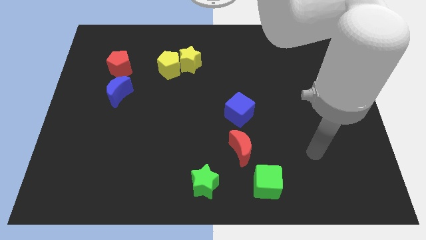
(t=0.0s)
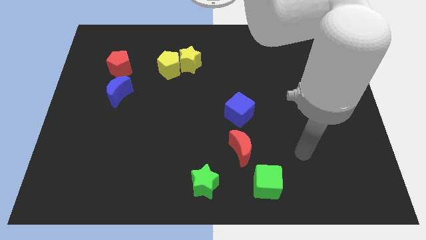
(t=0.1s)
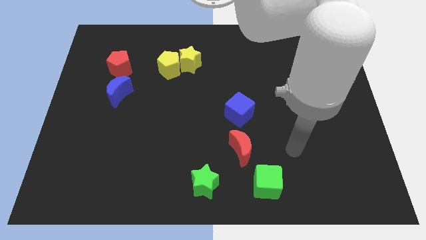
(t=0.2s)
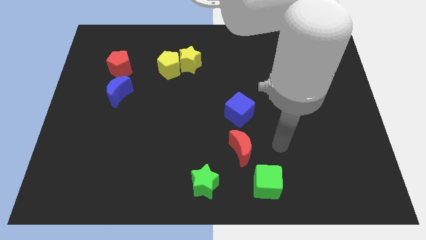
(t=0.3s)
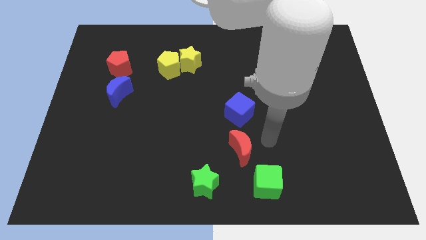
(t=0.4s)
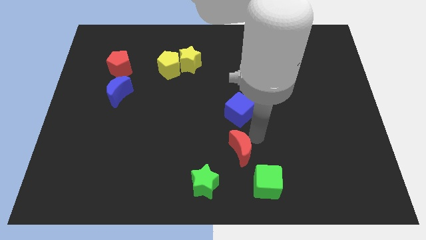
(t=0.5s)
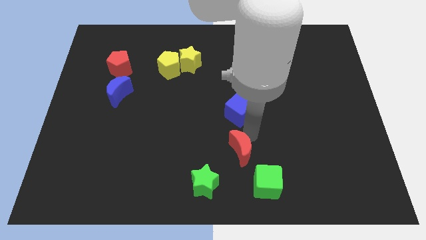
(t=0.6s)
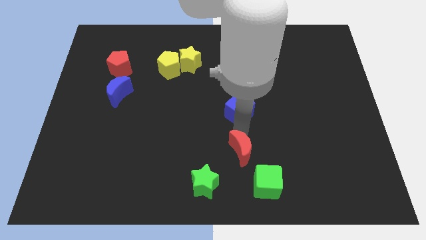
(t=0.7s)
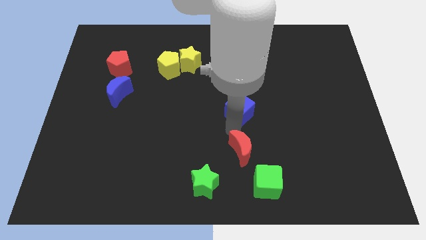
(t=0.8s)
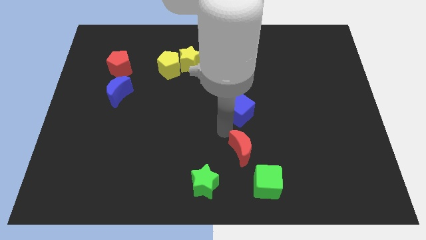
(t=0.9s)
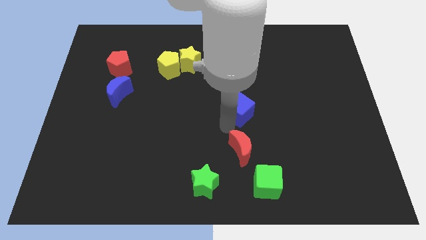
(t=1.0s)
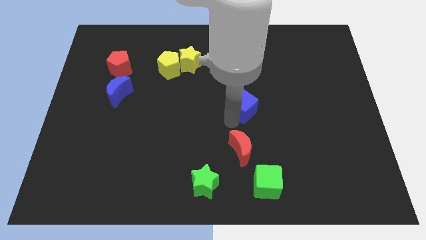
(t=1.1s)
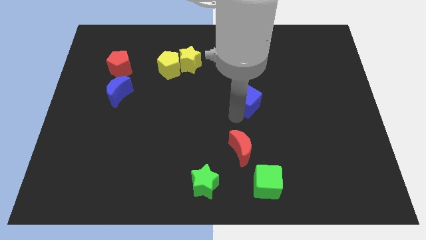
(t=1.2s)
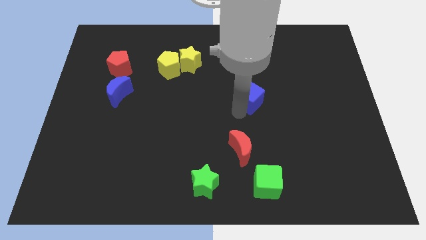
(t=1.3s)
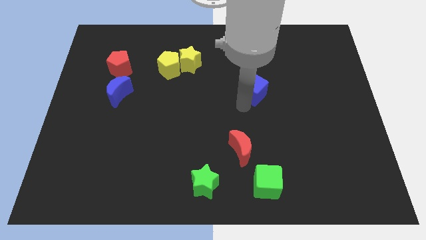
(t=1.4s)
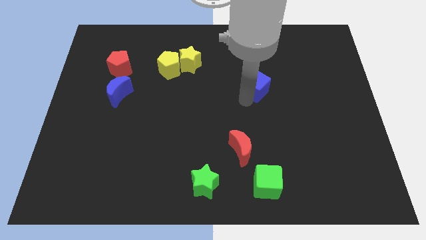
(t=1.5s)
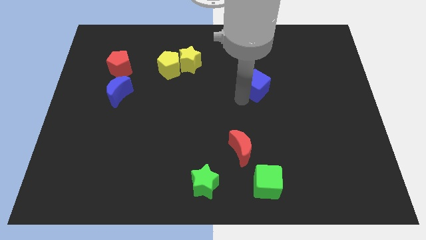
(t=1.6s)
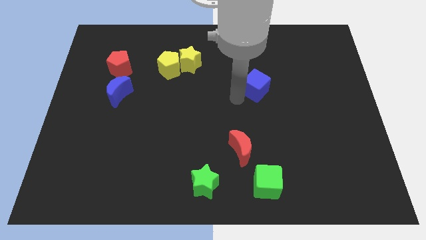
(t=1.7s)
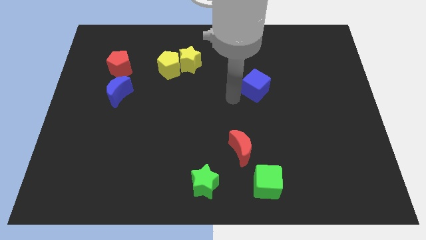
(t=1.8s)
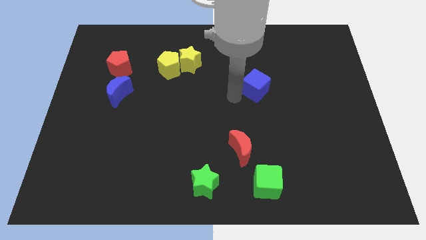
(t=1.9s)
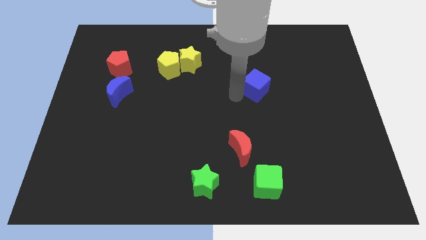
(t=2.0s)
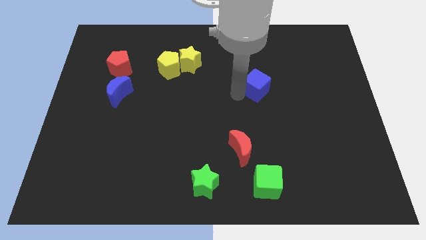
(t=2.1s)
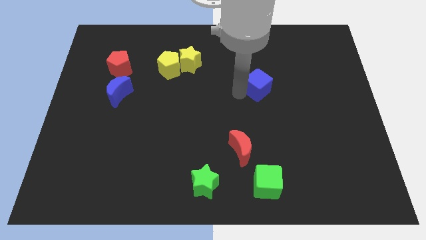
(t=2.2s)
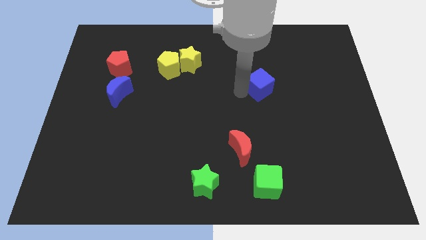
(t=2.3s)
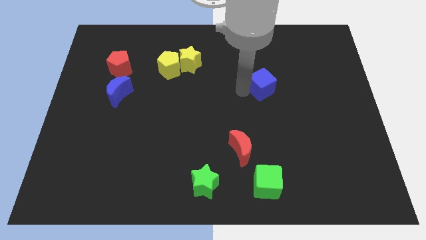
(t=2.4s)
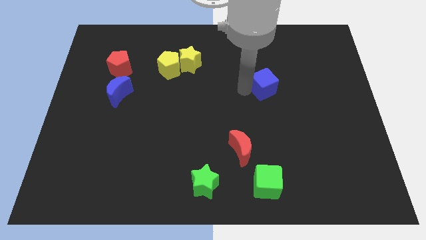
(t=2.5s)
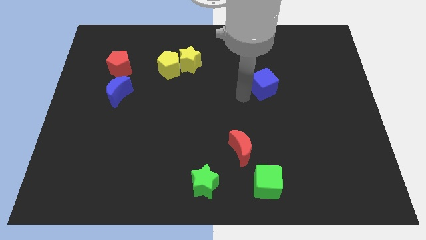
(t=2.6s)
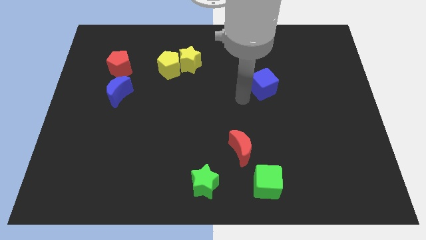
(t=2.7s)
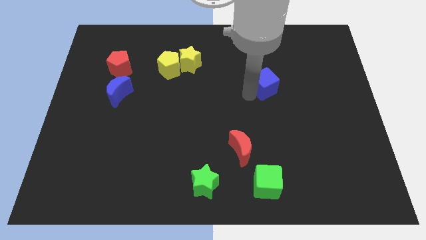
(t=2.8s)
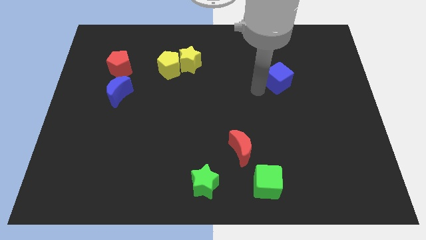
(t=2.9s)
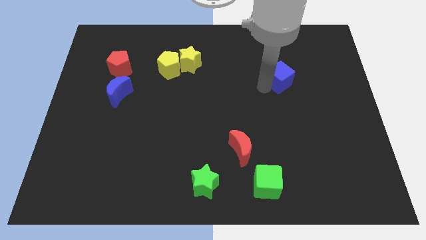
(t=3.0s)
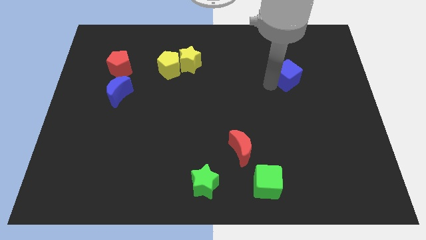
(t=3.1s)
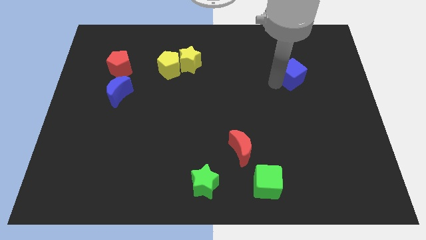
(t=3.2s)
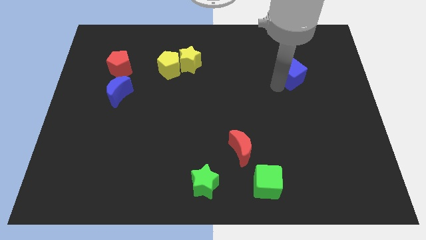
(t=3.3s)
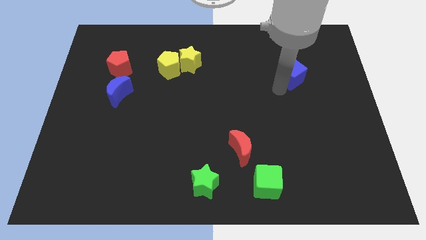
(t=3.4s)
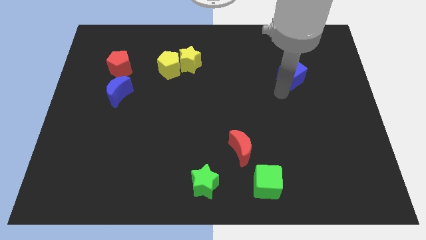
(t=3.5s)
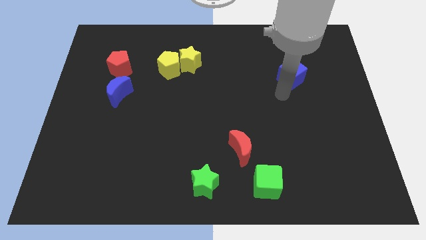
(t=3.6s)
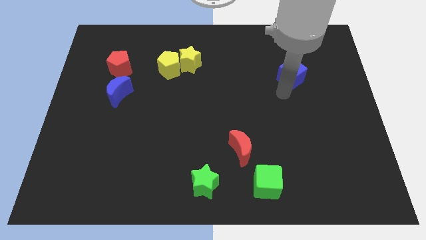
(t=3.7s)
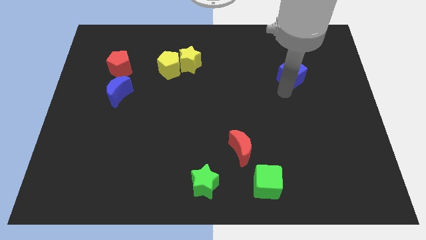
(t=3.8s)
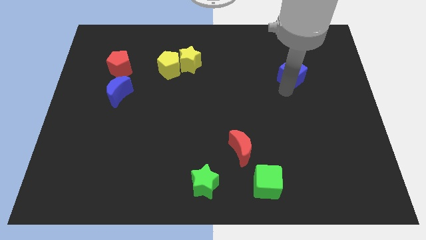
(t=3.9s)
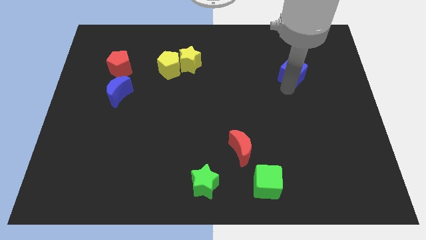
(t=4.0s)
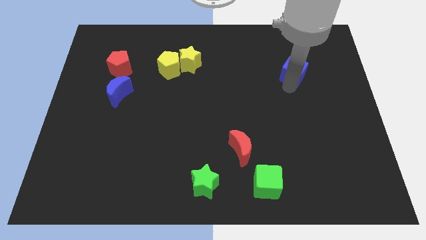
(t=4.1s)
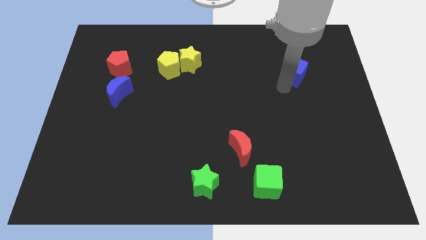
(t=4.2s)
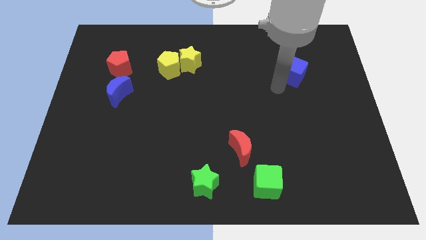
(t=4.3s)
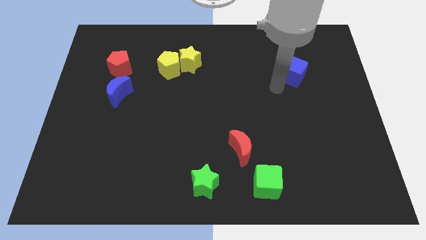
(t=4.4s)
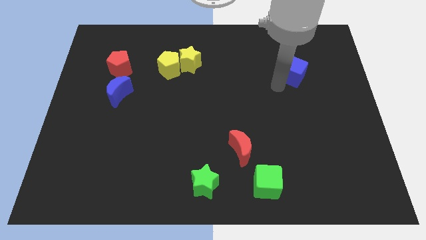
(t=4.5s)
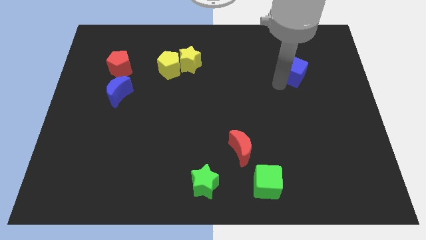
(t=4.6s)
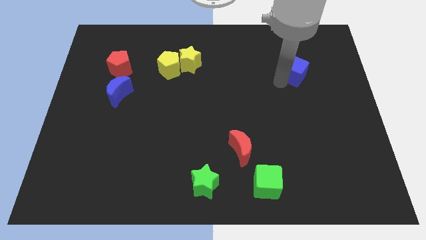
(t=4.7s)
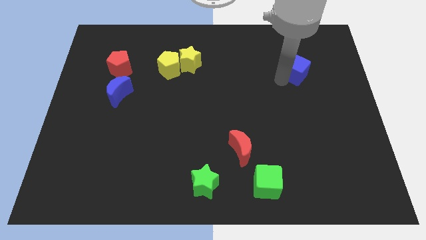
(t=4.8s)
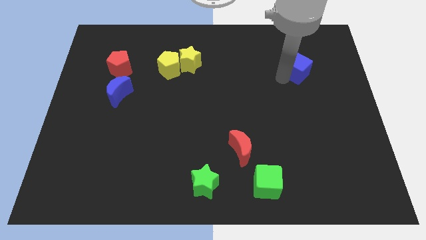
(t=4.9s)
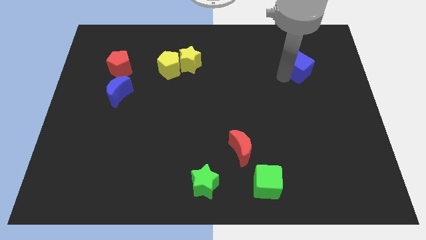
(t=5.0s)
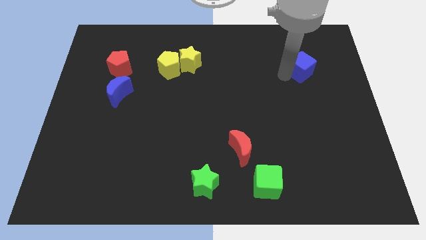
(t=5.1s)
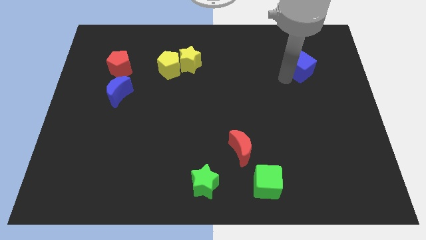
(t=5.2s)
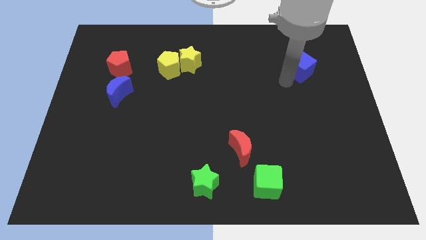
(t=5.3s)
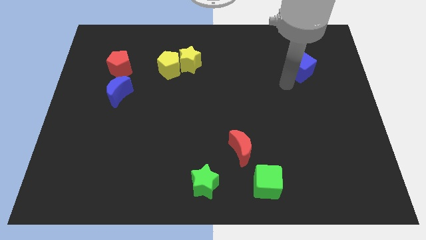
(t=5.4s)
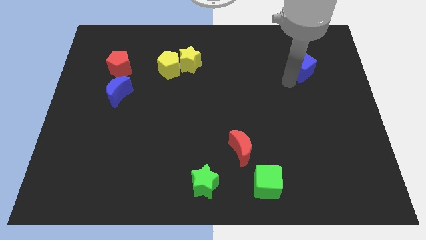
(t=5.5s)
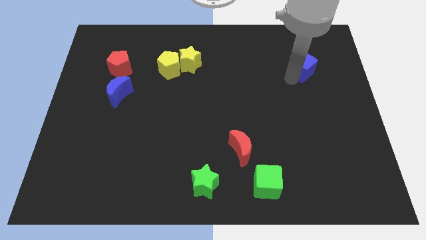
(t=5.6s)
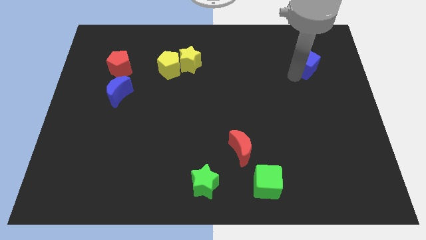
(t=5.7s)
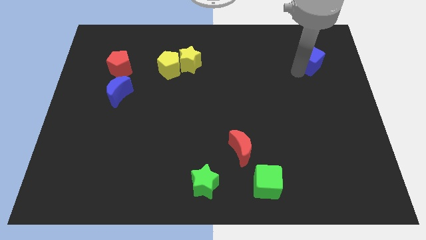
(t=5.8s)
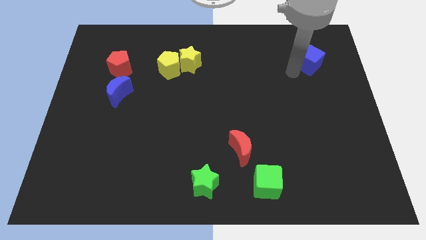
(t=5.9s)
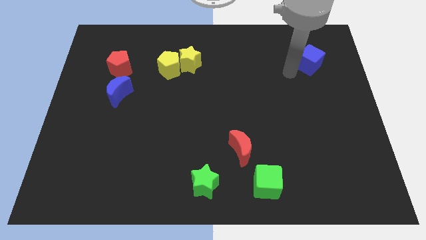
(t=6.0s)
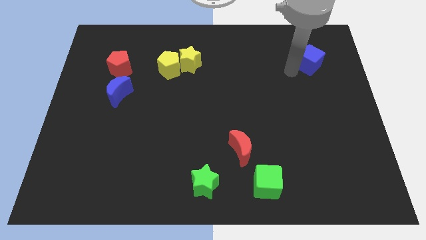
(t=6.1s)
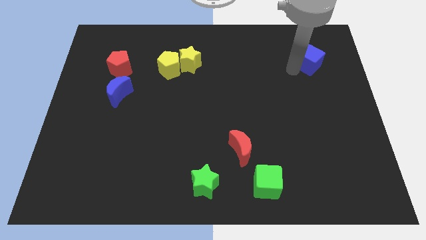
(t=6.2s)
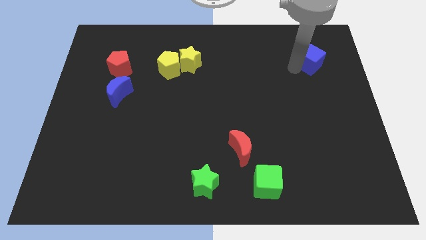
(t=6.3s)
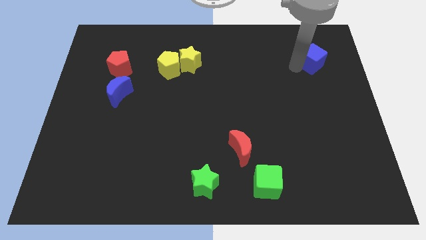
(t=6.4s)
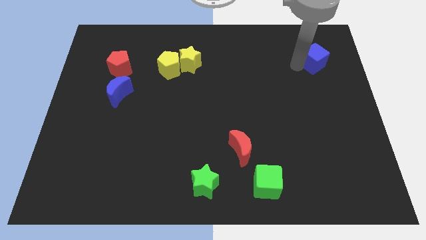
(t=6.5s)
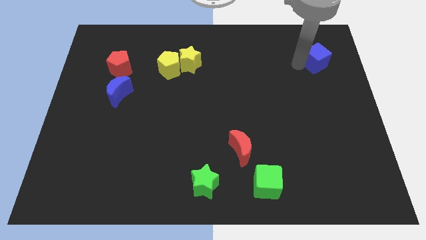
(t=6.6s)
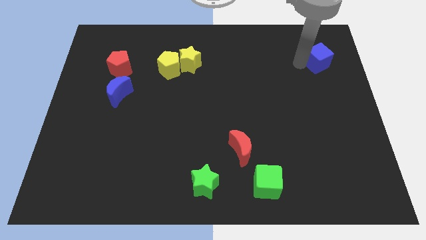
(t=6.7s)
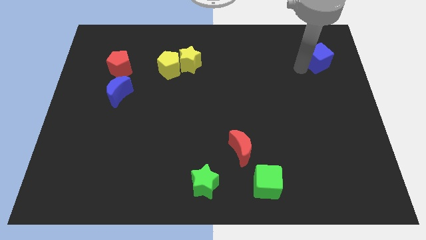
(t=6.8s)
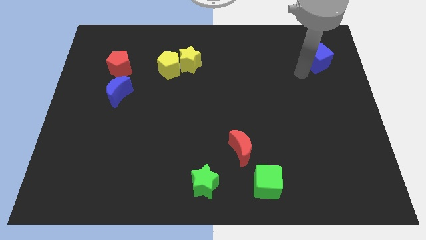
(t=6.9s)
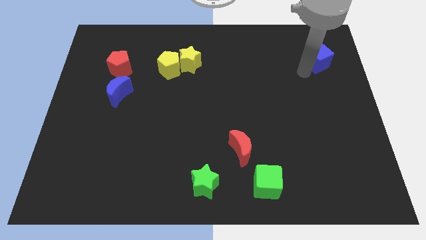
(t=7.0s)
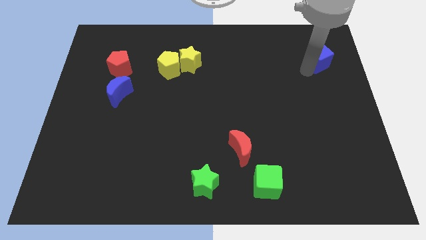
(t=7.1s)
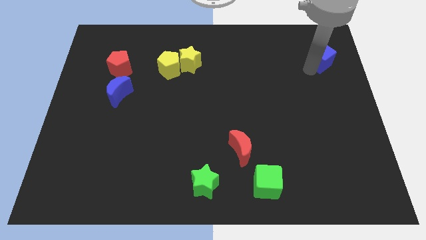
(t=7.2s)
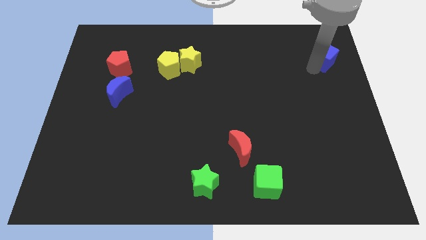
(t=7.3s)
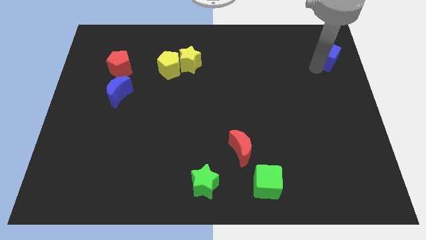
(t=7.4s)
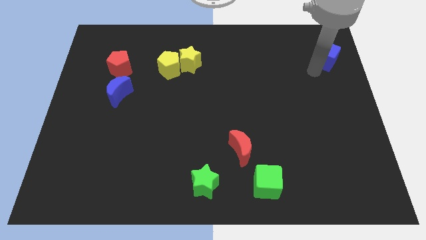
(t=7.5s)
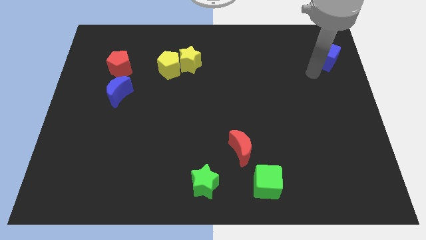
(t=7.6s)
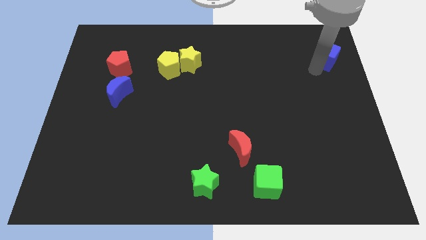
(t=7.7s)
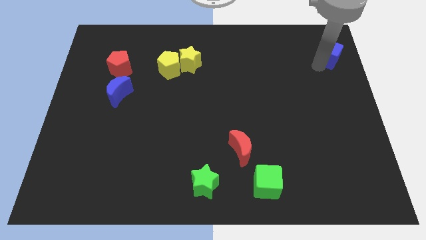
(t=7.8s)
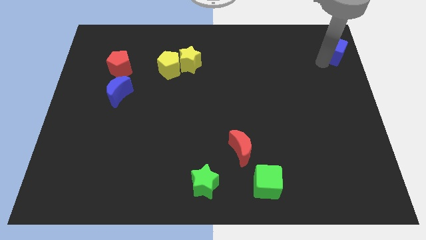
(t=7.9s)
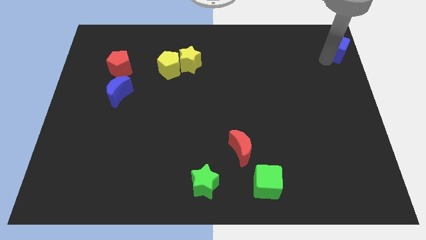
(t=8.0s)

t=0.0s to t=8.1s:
push the blue cube to the top right corner
